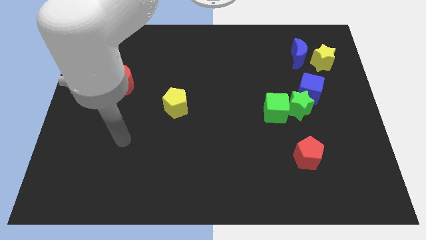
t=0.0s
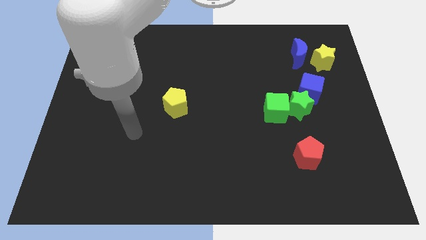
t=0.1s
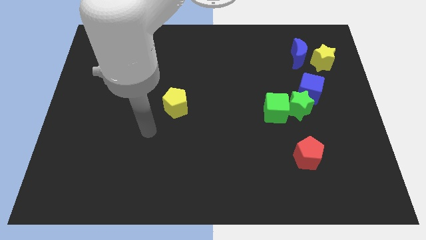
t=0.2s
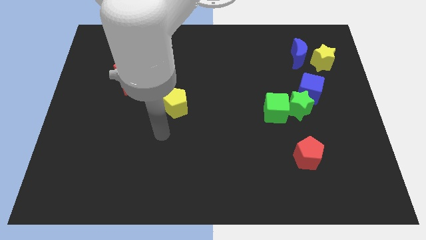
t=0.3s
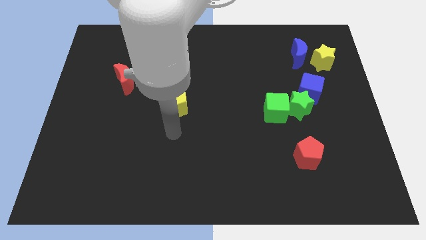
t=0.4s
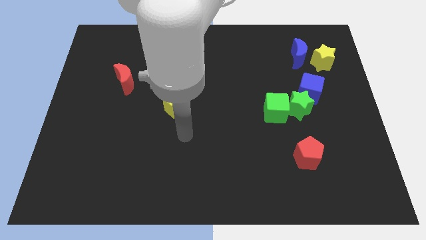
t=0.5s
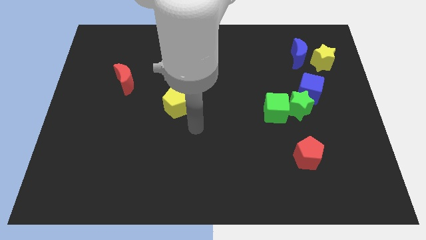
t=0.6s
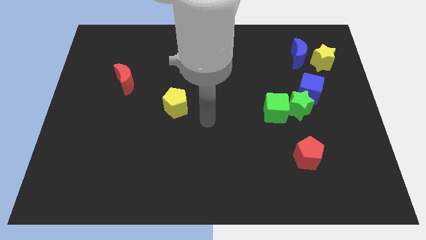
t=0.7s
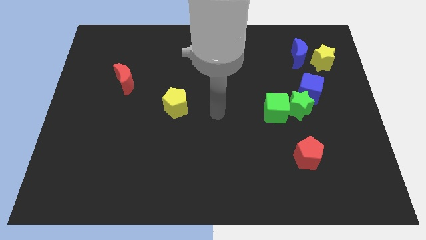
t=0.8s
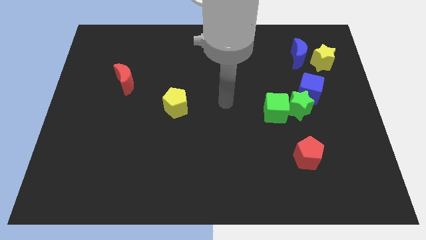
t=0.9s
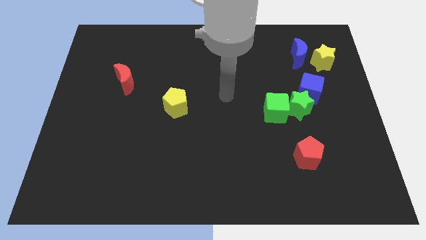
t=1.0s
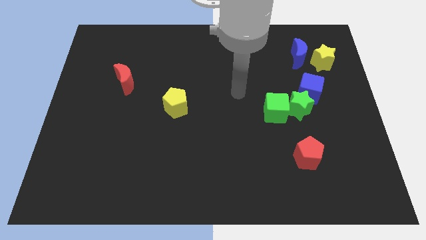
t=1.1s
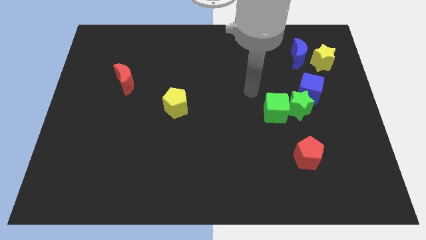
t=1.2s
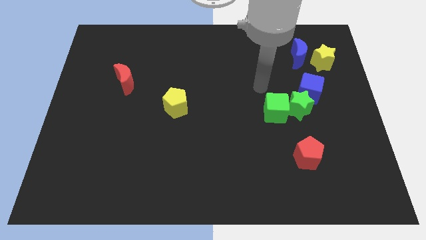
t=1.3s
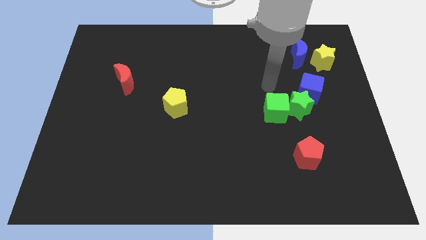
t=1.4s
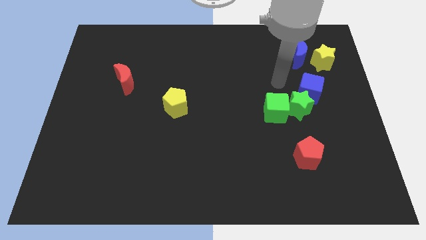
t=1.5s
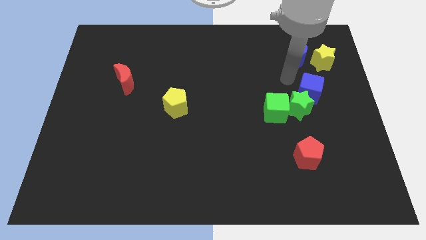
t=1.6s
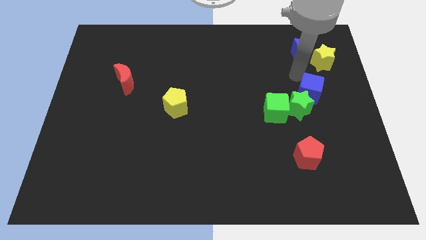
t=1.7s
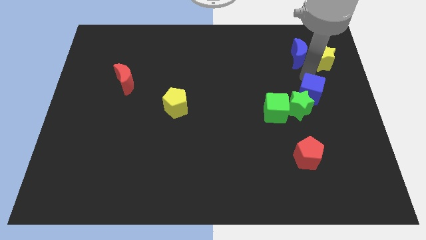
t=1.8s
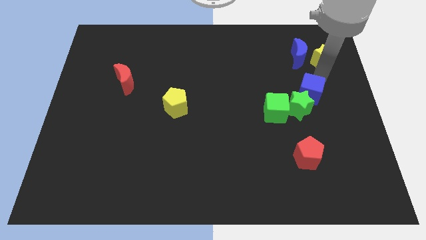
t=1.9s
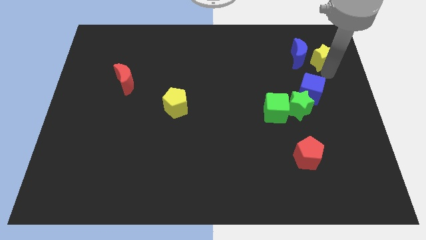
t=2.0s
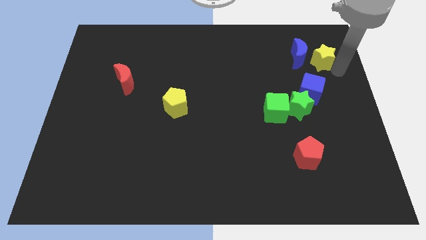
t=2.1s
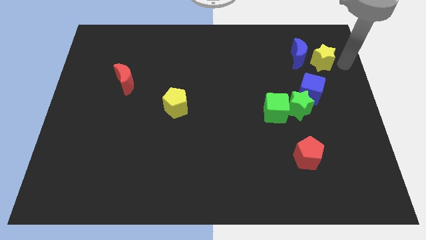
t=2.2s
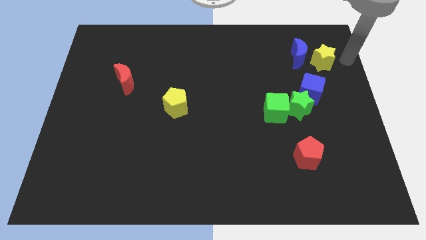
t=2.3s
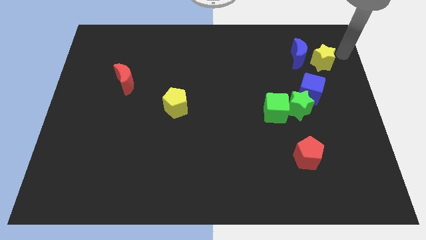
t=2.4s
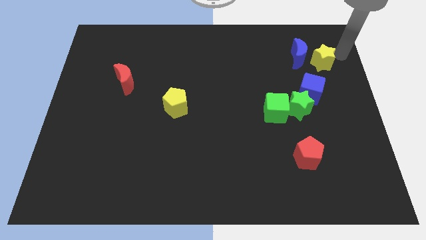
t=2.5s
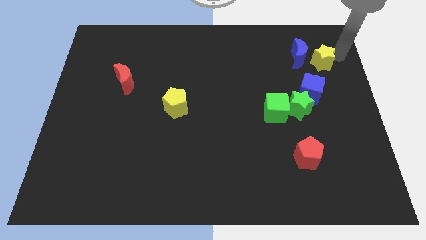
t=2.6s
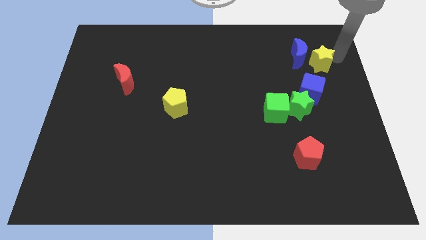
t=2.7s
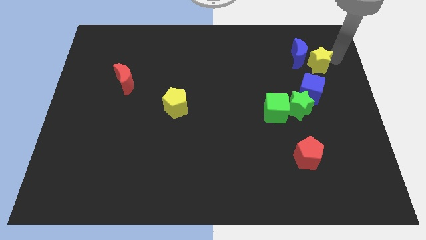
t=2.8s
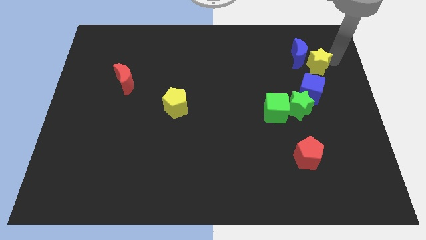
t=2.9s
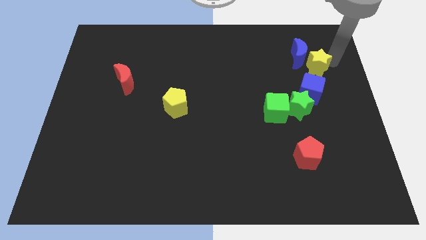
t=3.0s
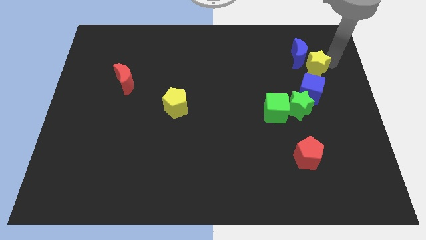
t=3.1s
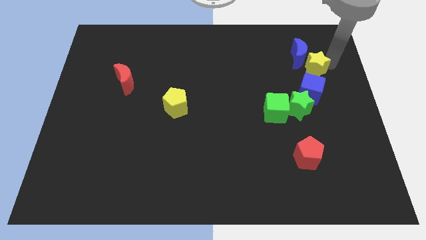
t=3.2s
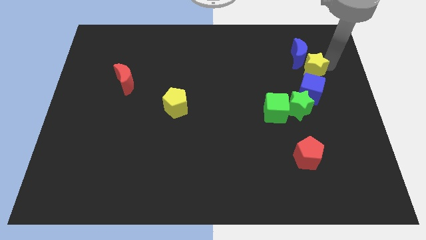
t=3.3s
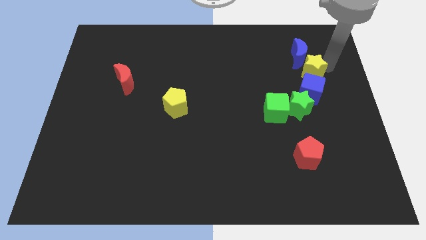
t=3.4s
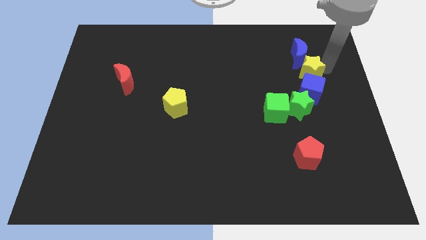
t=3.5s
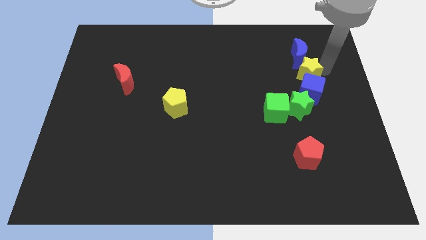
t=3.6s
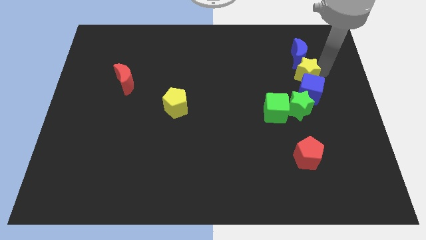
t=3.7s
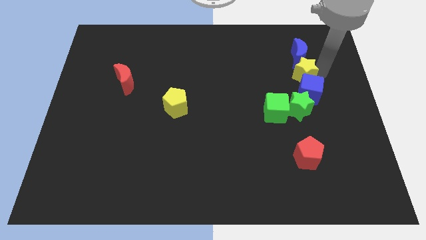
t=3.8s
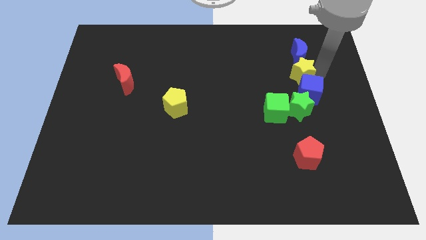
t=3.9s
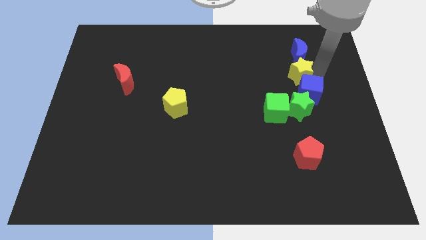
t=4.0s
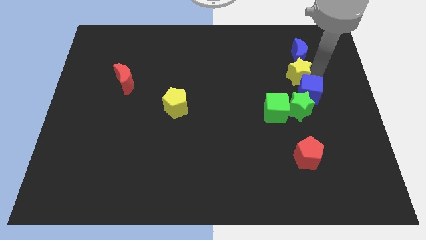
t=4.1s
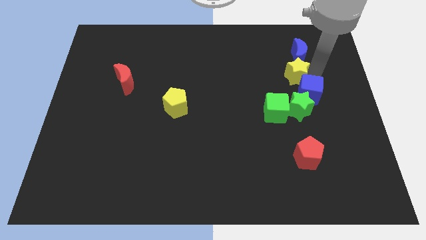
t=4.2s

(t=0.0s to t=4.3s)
slightly move the yellow star to the left

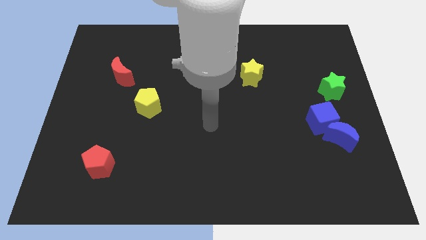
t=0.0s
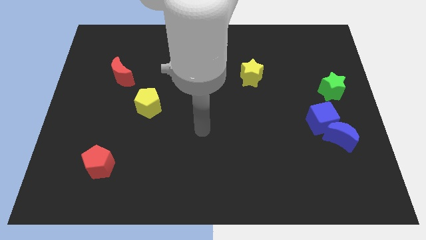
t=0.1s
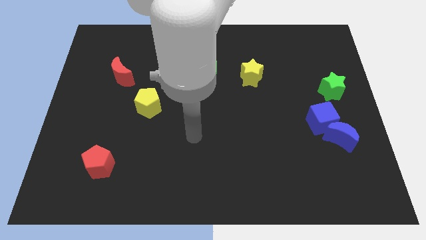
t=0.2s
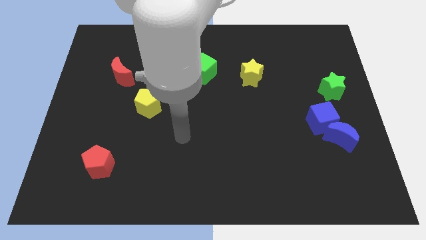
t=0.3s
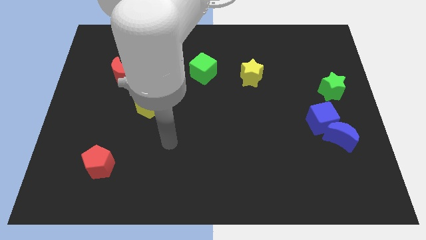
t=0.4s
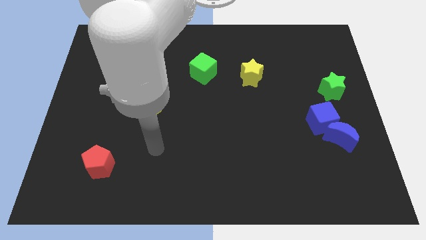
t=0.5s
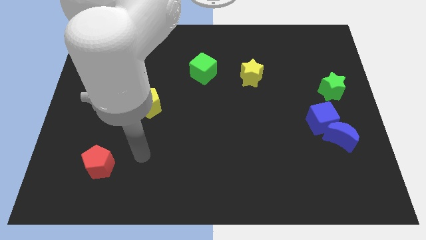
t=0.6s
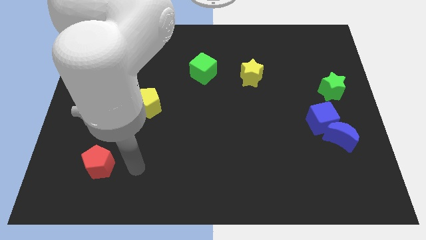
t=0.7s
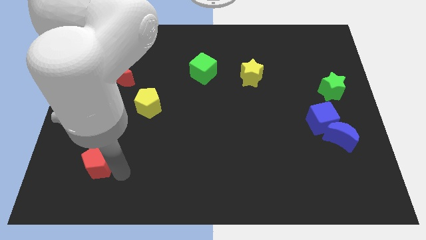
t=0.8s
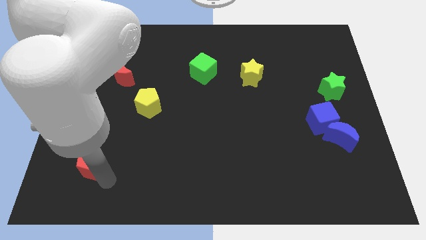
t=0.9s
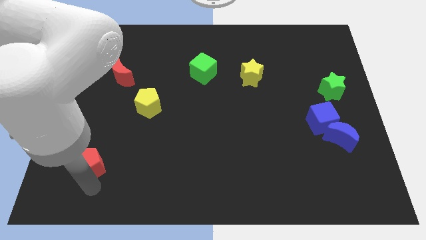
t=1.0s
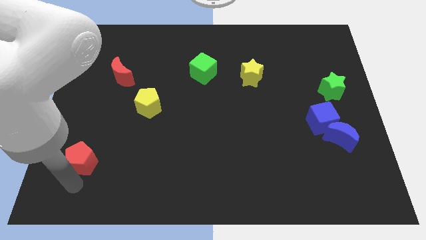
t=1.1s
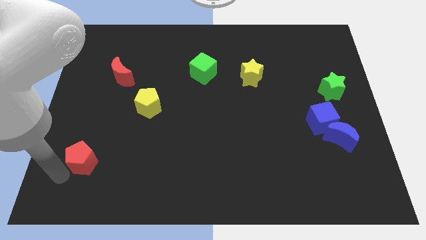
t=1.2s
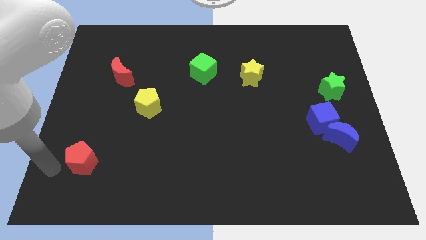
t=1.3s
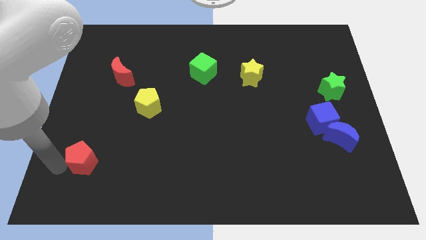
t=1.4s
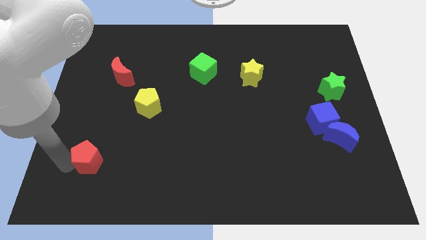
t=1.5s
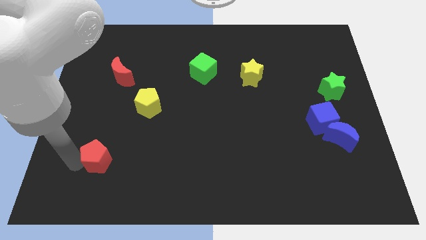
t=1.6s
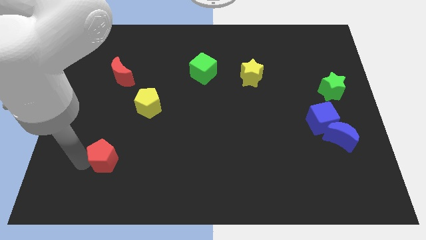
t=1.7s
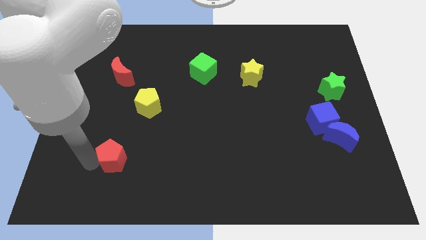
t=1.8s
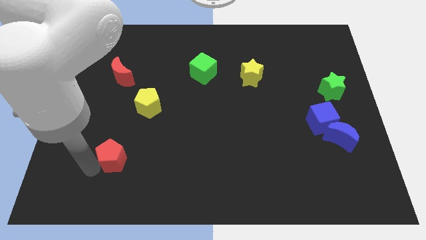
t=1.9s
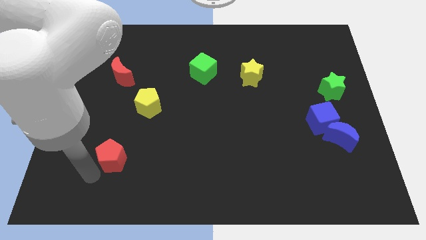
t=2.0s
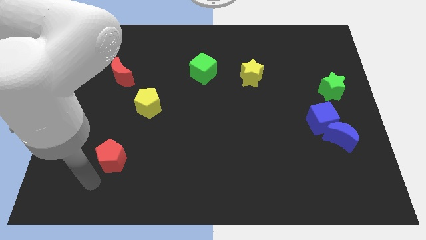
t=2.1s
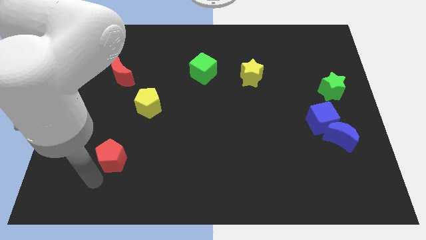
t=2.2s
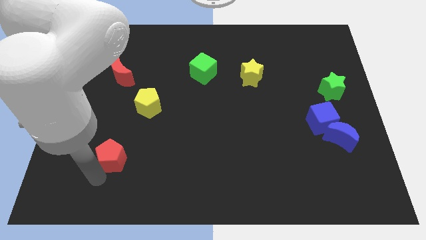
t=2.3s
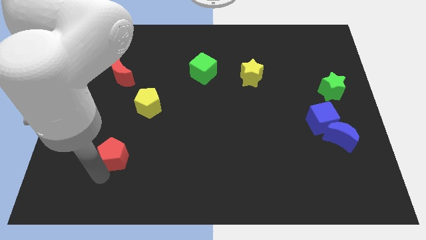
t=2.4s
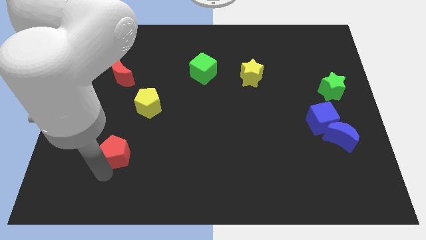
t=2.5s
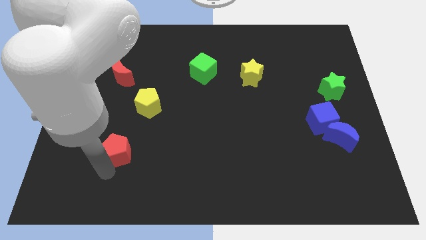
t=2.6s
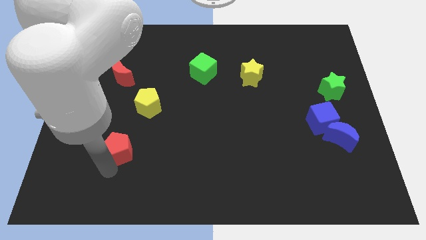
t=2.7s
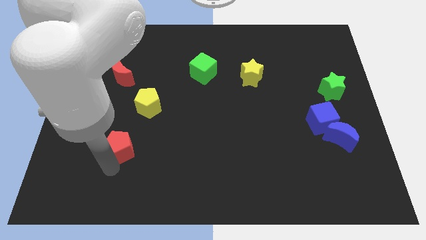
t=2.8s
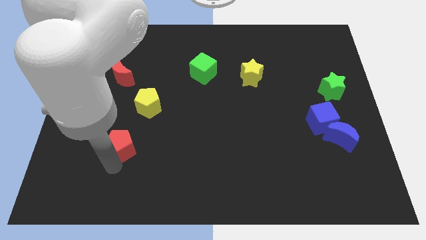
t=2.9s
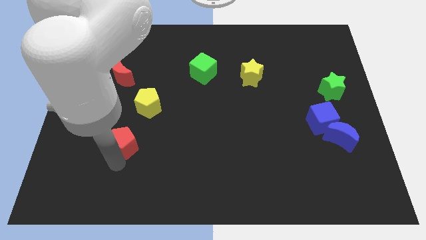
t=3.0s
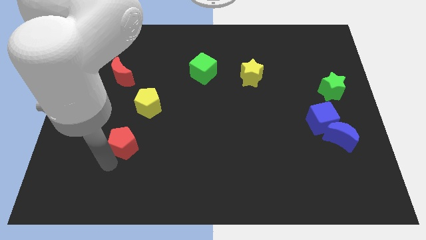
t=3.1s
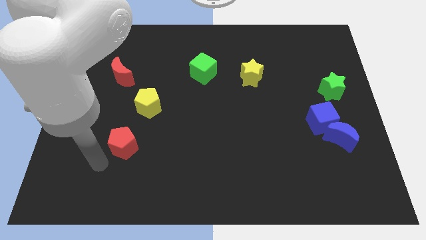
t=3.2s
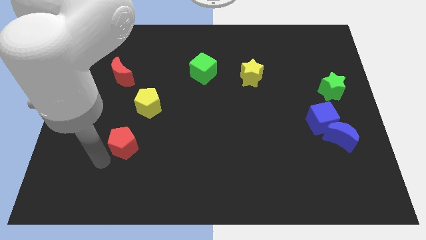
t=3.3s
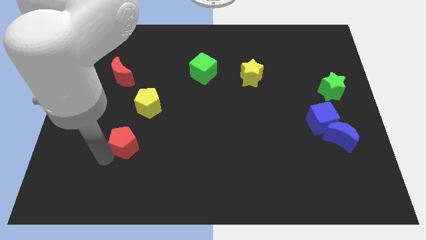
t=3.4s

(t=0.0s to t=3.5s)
push the red pentagon a little bit up and then to the right

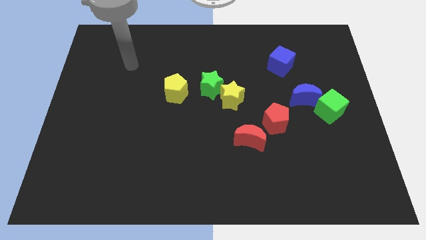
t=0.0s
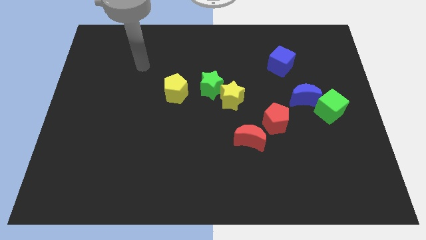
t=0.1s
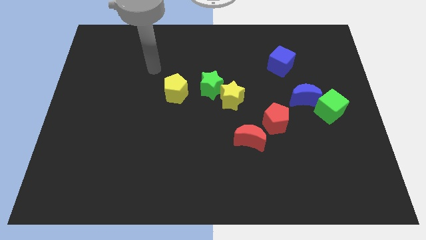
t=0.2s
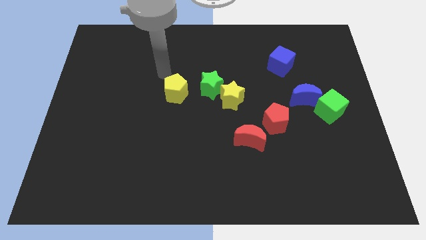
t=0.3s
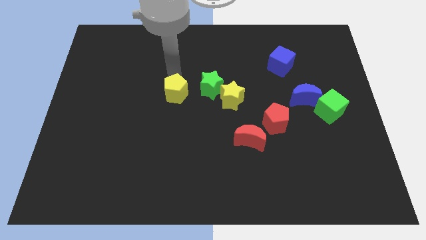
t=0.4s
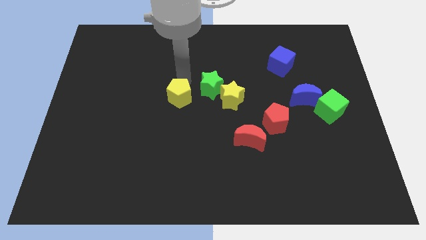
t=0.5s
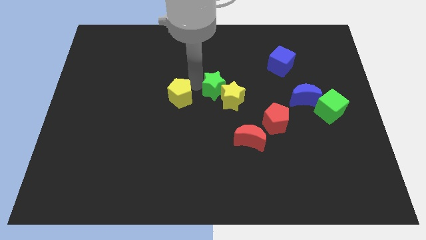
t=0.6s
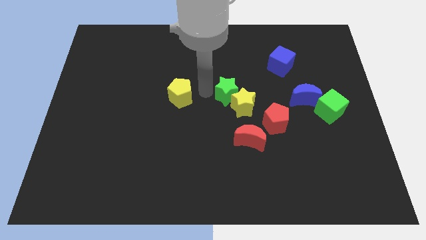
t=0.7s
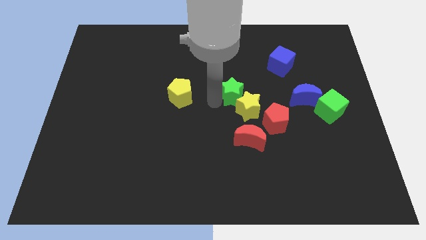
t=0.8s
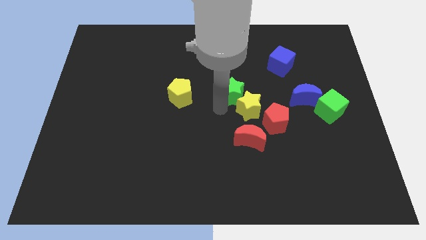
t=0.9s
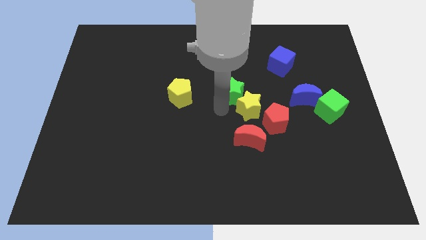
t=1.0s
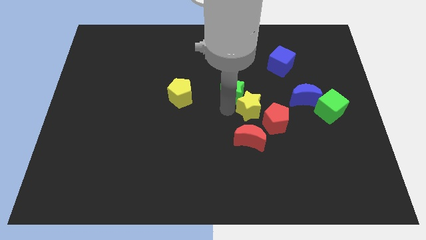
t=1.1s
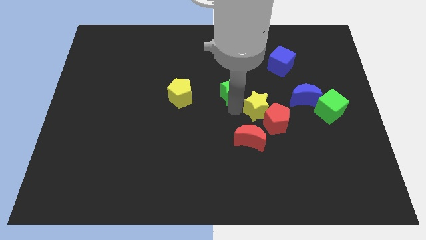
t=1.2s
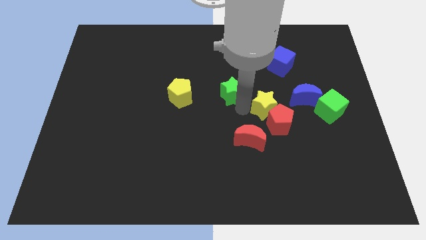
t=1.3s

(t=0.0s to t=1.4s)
slide the yellow star slightly downwards and then right
